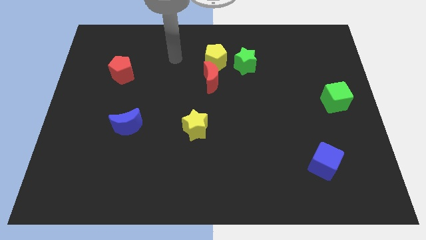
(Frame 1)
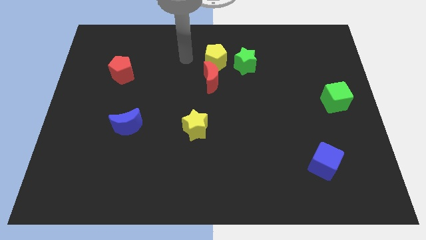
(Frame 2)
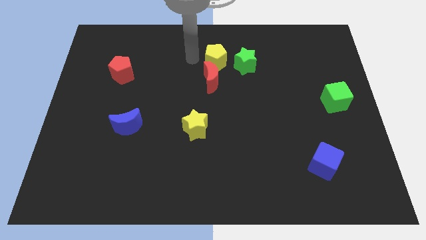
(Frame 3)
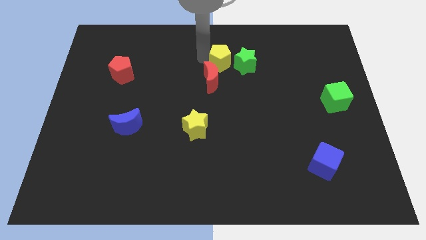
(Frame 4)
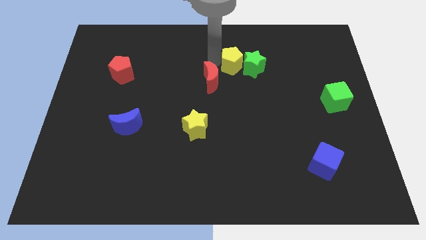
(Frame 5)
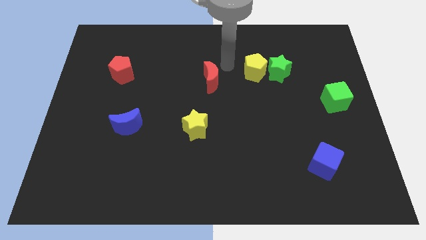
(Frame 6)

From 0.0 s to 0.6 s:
pull the red moon apart from the yellow pentagon

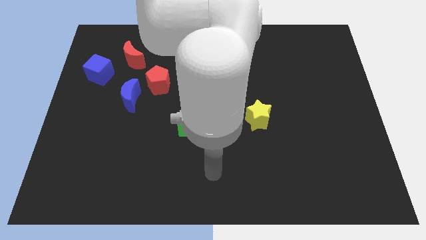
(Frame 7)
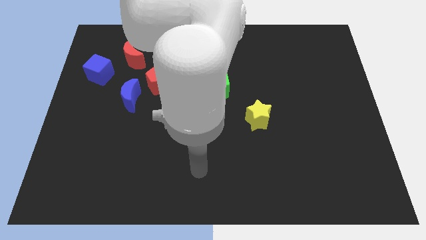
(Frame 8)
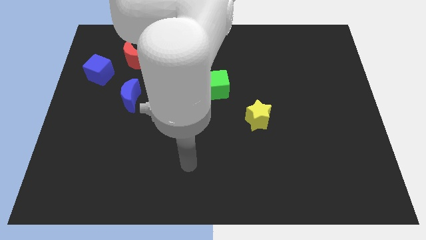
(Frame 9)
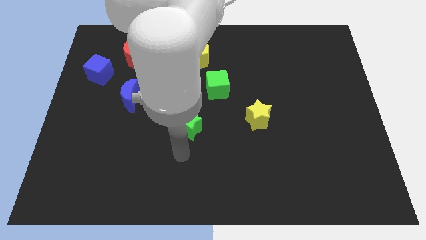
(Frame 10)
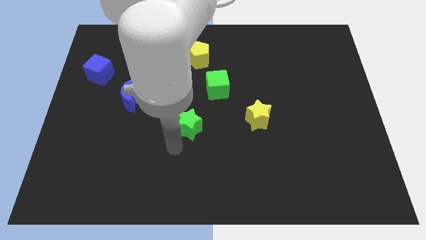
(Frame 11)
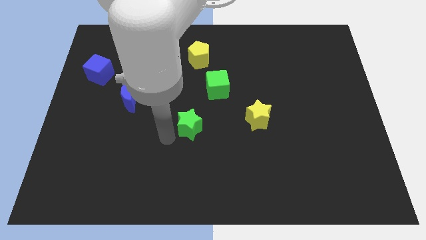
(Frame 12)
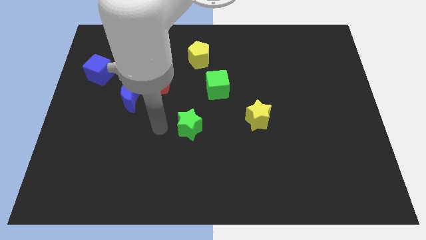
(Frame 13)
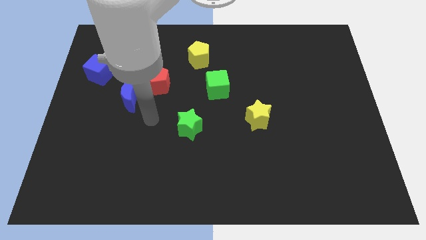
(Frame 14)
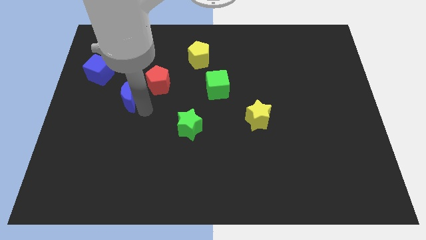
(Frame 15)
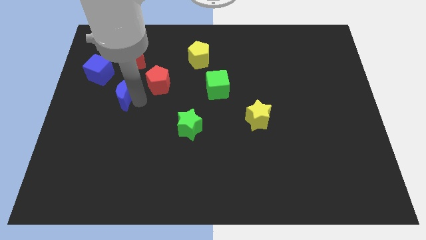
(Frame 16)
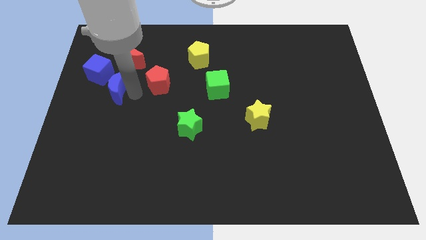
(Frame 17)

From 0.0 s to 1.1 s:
pull the red pentagon apart from the blue moon

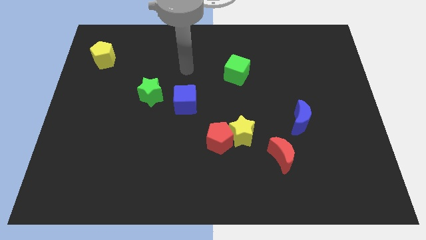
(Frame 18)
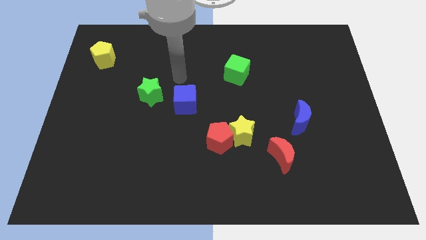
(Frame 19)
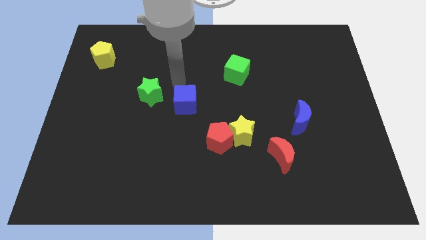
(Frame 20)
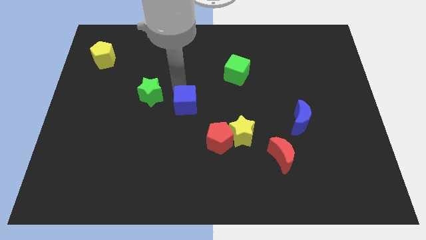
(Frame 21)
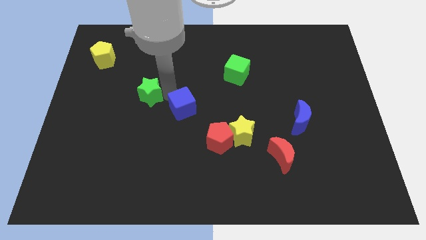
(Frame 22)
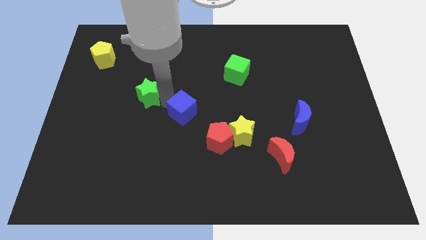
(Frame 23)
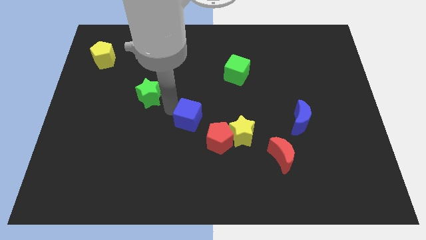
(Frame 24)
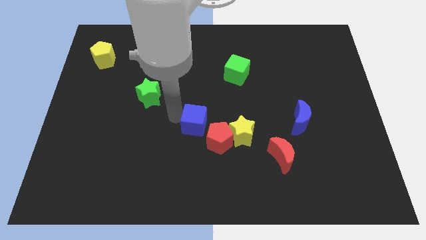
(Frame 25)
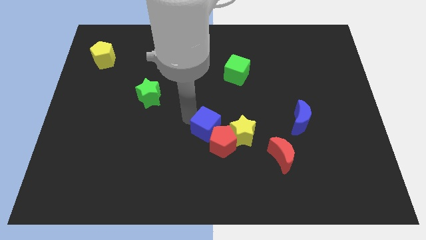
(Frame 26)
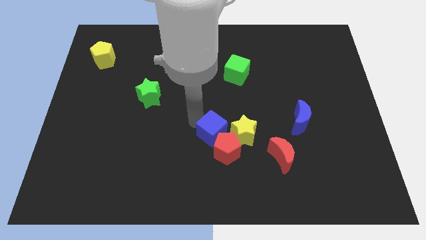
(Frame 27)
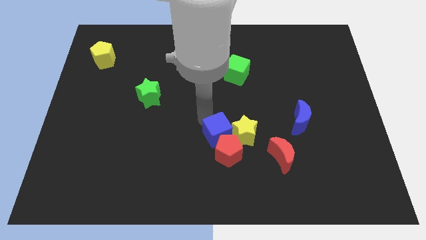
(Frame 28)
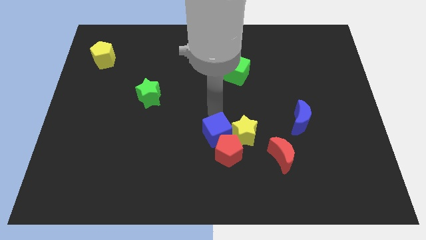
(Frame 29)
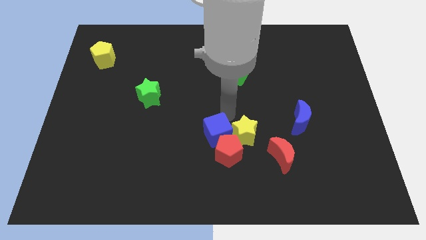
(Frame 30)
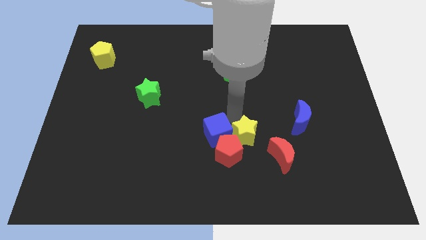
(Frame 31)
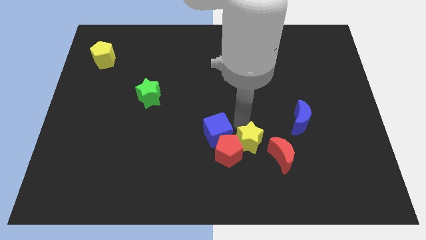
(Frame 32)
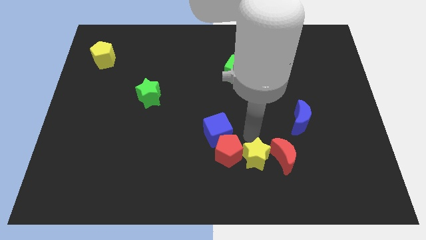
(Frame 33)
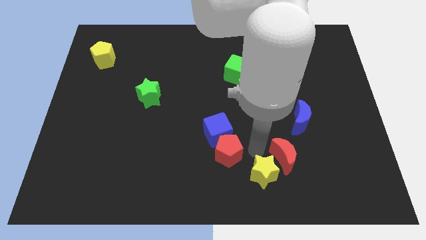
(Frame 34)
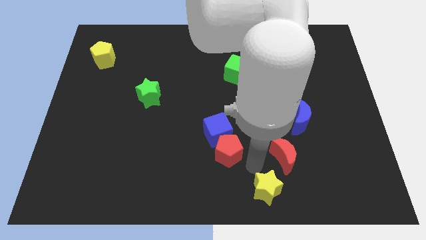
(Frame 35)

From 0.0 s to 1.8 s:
move the red pentagon away from the yellow star

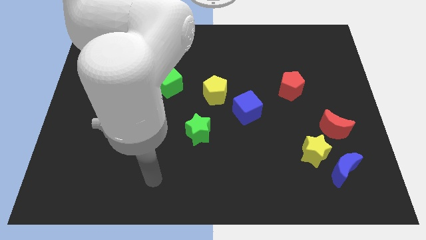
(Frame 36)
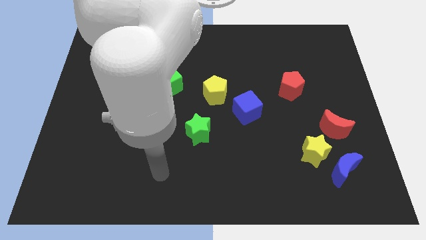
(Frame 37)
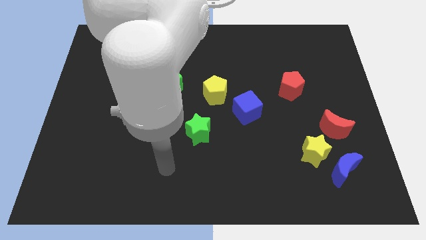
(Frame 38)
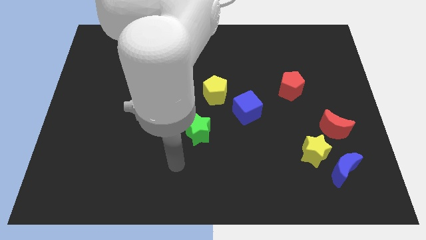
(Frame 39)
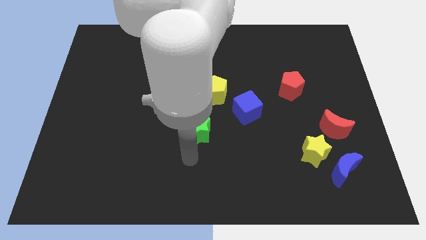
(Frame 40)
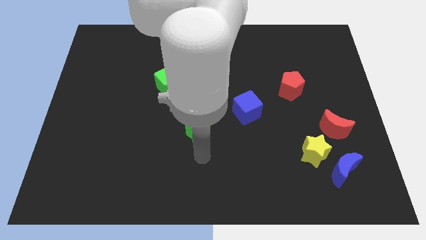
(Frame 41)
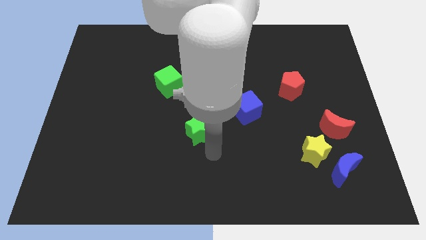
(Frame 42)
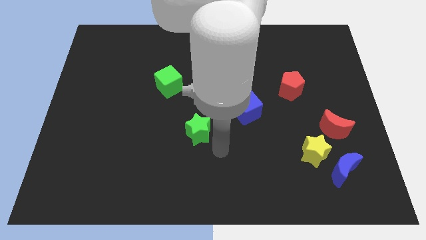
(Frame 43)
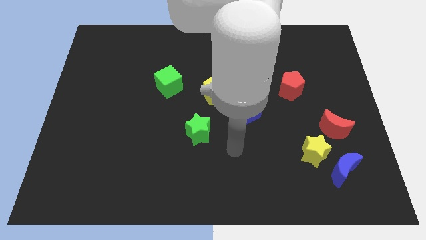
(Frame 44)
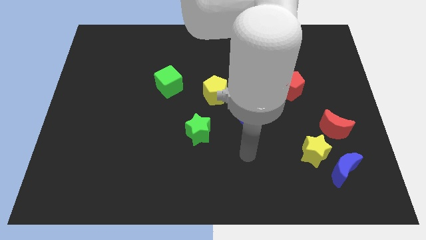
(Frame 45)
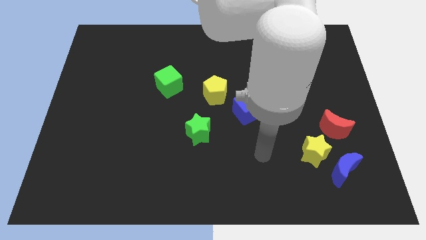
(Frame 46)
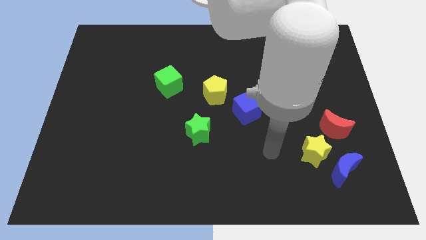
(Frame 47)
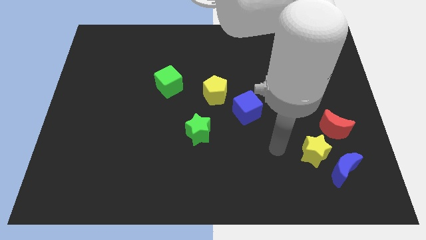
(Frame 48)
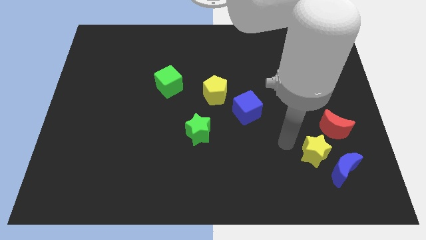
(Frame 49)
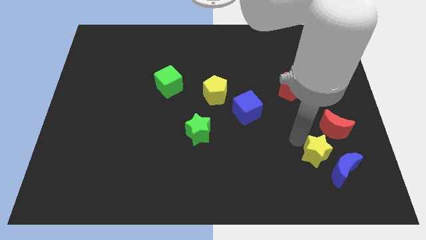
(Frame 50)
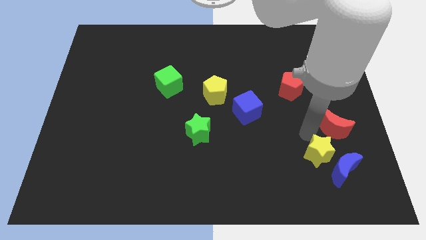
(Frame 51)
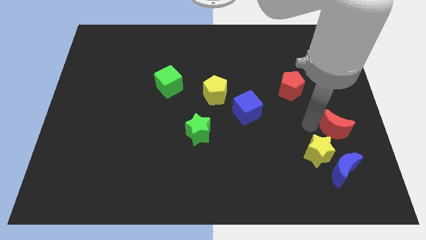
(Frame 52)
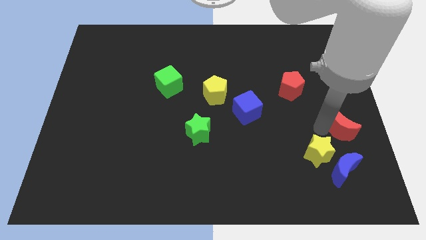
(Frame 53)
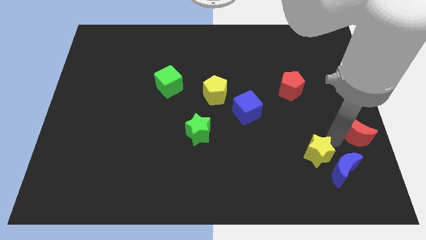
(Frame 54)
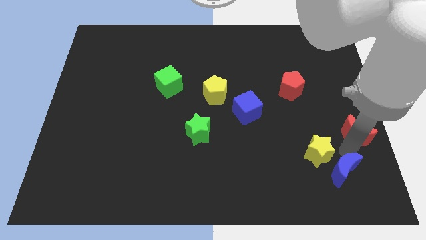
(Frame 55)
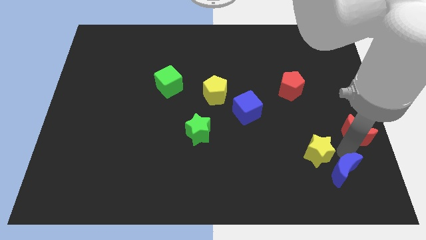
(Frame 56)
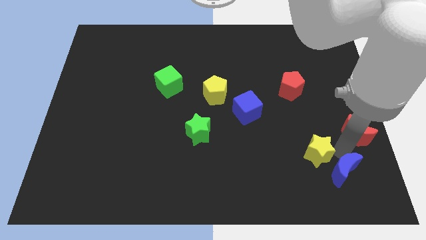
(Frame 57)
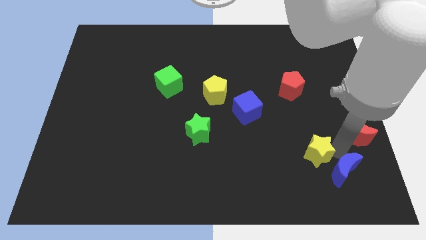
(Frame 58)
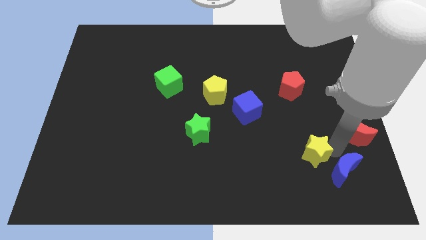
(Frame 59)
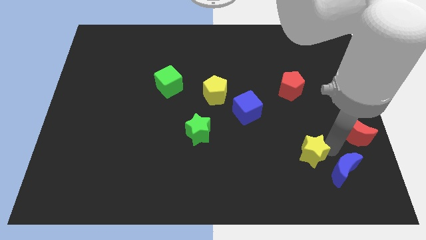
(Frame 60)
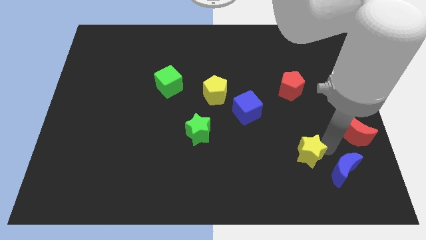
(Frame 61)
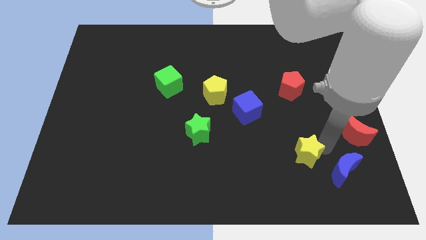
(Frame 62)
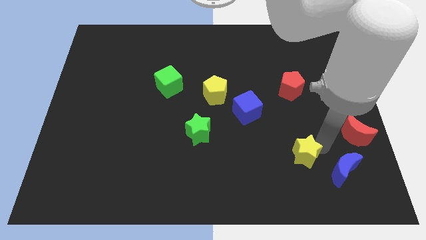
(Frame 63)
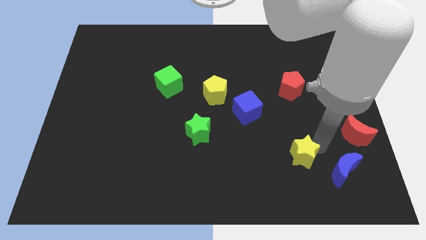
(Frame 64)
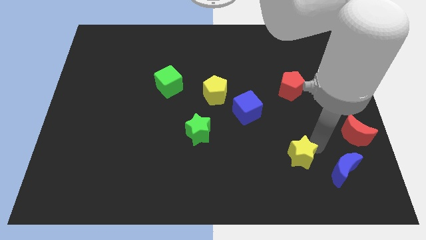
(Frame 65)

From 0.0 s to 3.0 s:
move the yellow star away from the blue moon and red moon

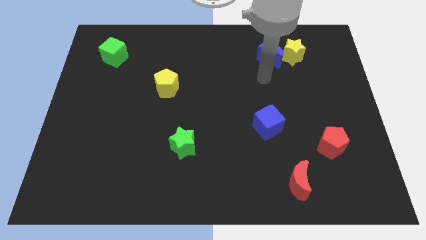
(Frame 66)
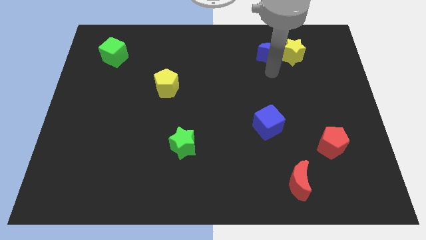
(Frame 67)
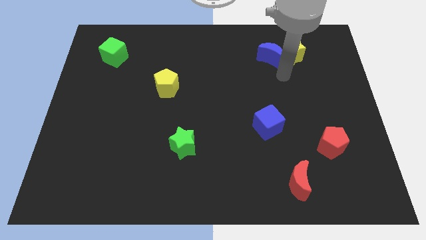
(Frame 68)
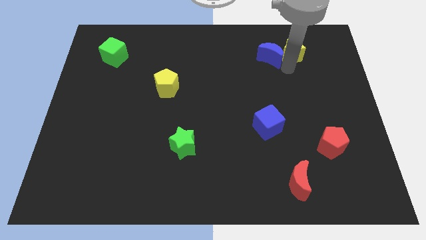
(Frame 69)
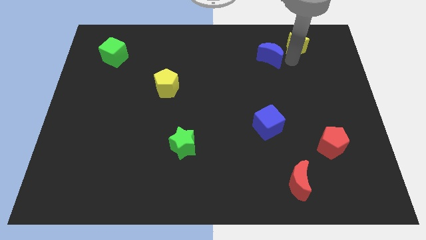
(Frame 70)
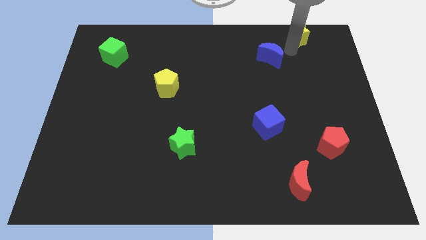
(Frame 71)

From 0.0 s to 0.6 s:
move the blue moon away from the yellow star

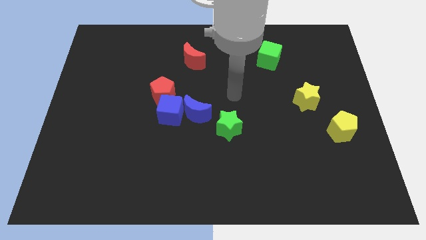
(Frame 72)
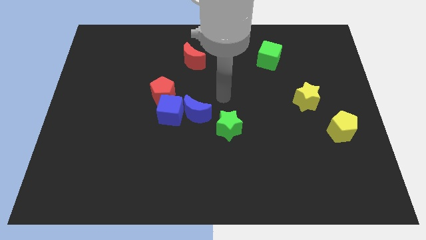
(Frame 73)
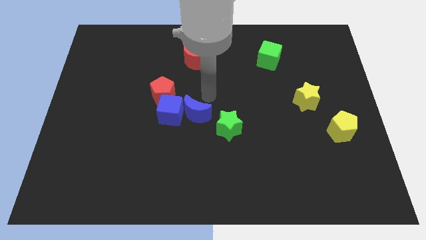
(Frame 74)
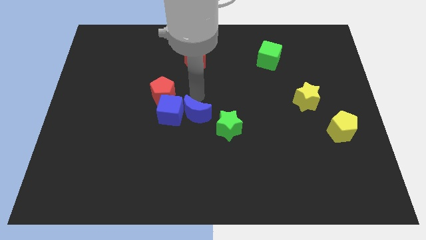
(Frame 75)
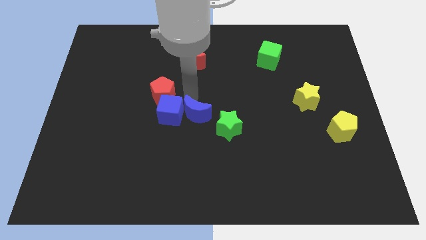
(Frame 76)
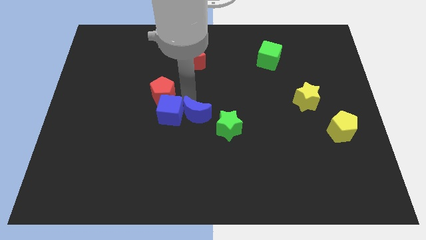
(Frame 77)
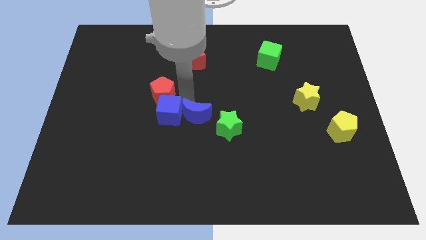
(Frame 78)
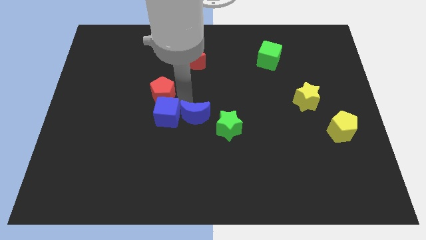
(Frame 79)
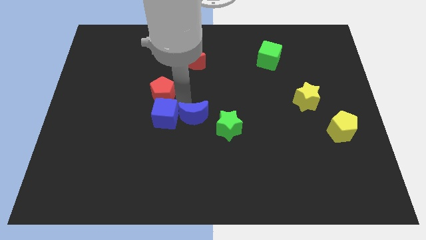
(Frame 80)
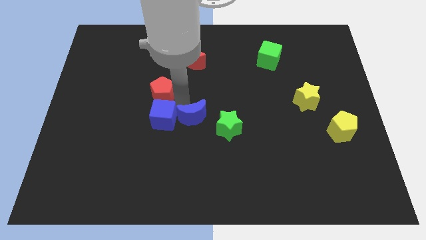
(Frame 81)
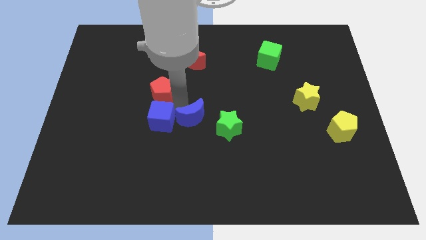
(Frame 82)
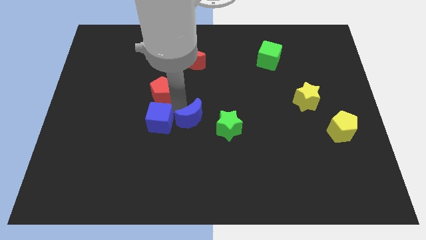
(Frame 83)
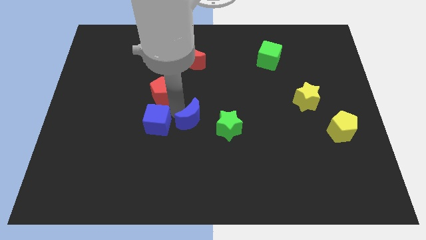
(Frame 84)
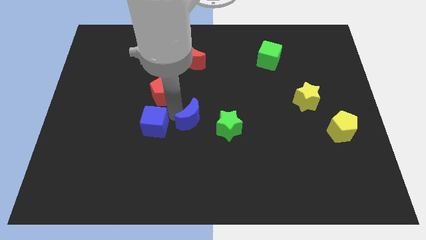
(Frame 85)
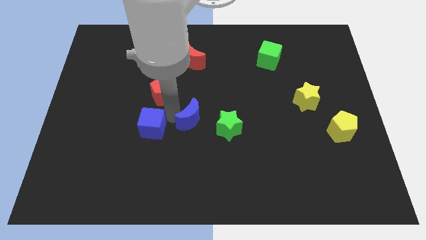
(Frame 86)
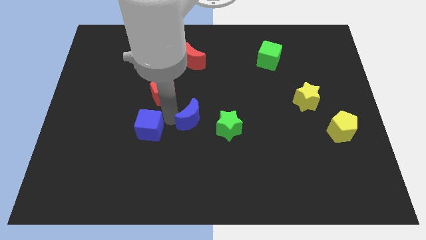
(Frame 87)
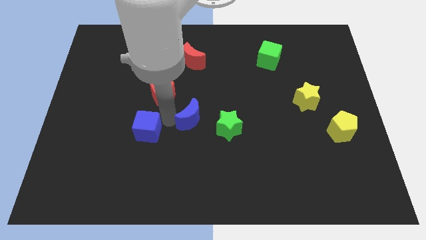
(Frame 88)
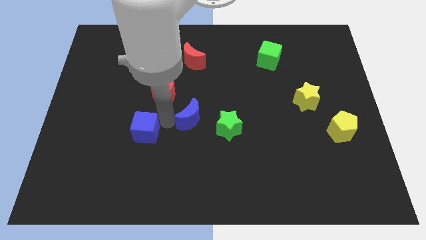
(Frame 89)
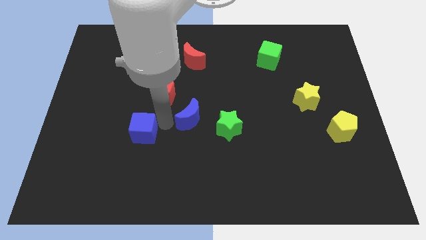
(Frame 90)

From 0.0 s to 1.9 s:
move the blue cube away from the blue moon and red pentagon

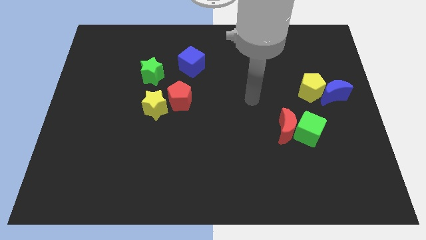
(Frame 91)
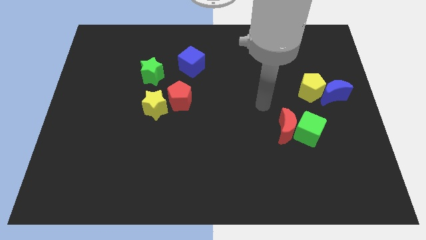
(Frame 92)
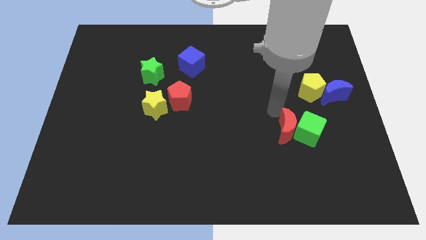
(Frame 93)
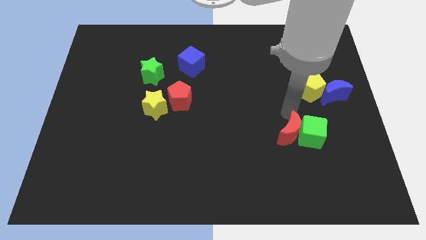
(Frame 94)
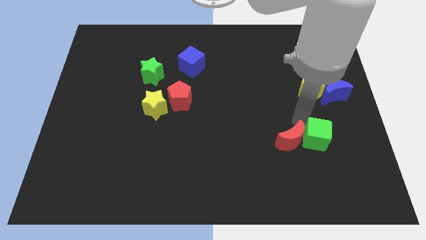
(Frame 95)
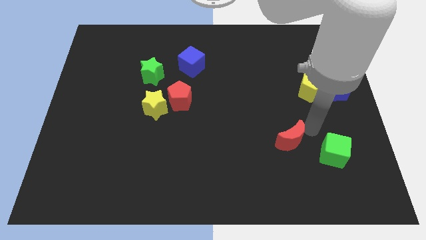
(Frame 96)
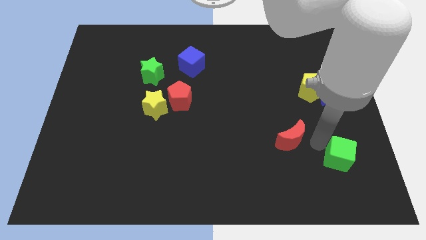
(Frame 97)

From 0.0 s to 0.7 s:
pull the red moon apart from the green cube
